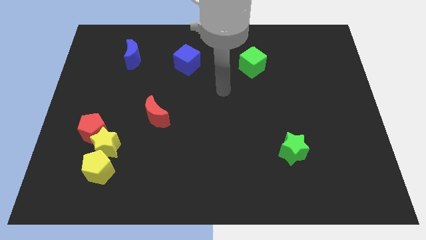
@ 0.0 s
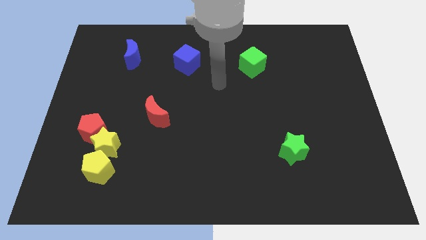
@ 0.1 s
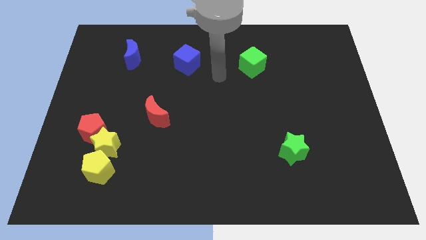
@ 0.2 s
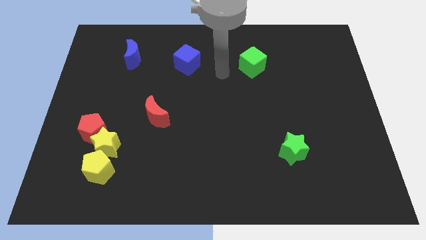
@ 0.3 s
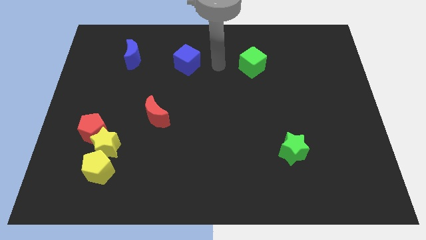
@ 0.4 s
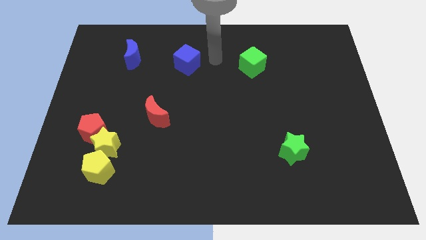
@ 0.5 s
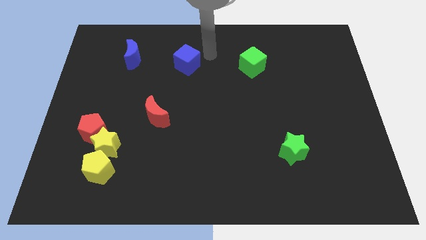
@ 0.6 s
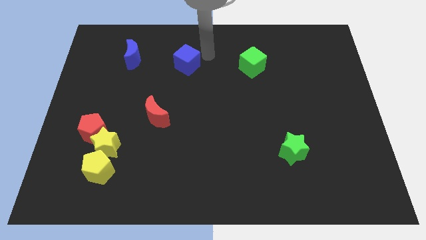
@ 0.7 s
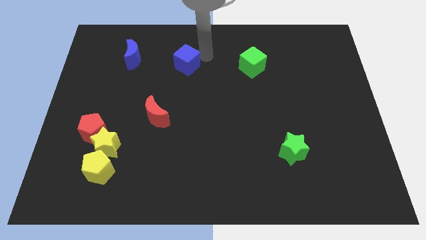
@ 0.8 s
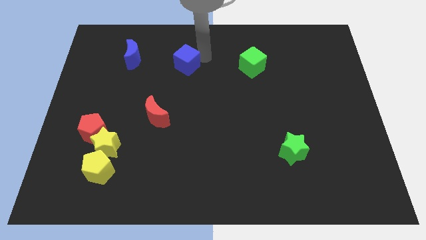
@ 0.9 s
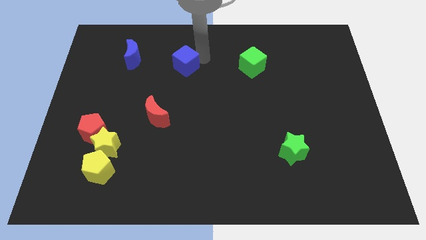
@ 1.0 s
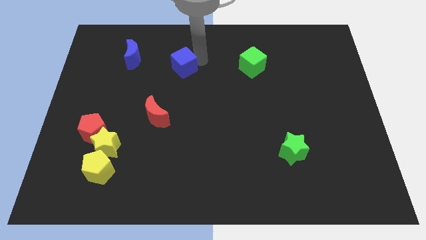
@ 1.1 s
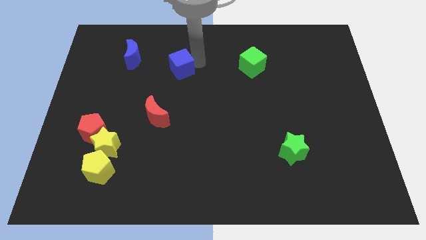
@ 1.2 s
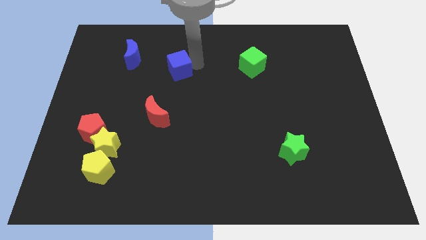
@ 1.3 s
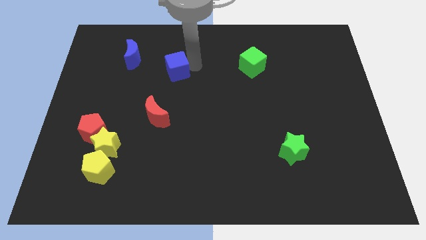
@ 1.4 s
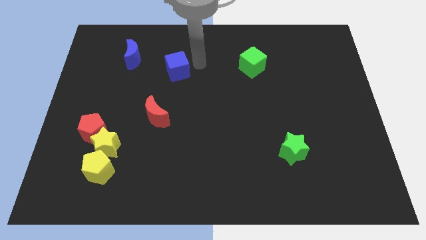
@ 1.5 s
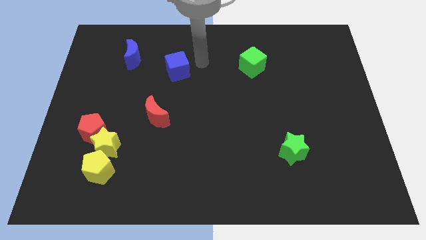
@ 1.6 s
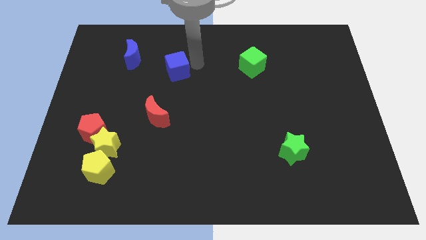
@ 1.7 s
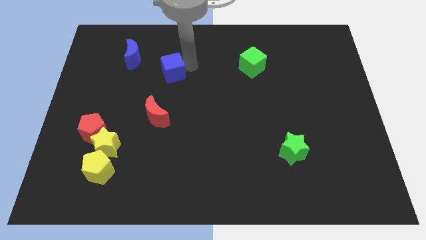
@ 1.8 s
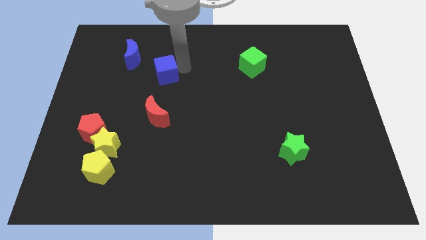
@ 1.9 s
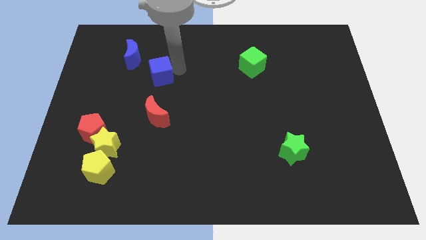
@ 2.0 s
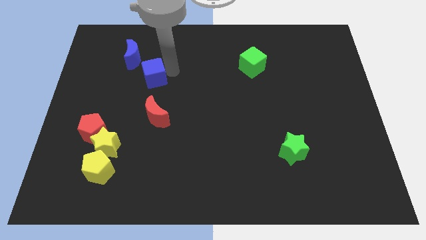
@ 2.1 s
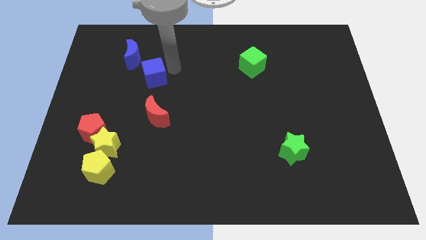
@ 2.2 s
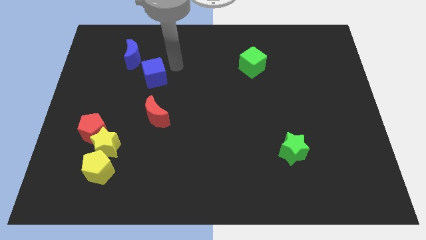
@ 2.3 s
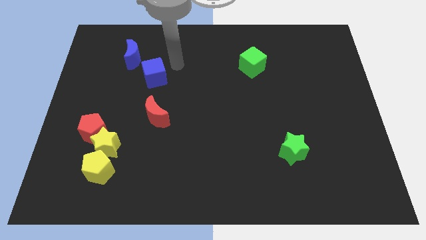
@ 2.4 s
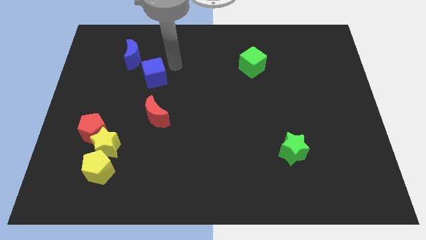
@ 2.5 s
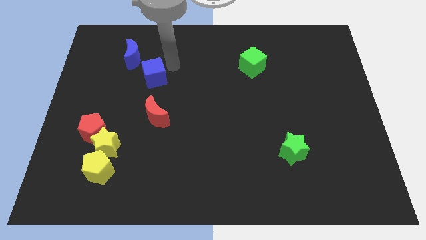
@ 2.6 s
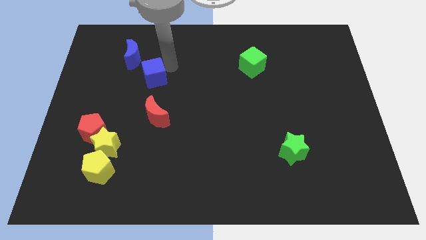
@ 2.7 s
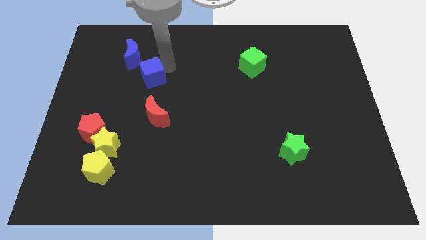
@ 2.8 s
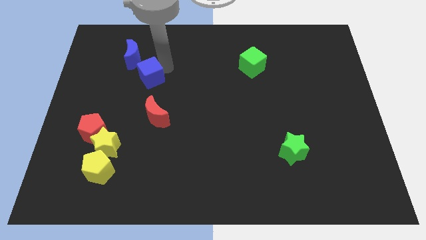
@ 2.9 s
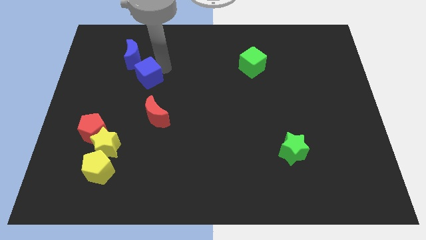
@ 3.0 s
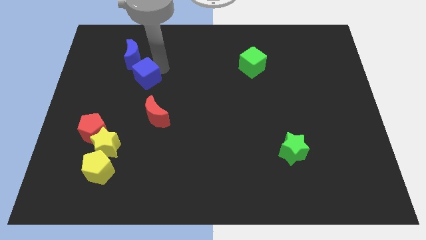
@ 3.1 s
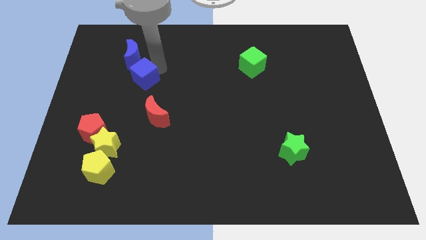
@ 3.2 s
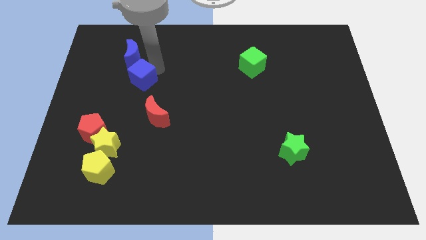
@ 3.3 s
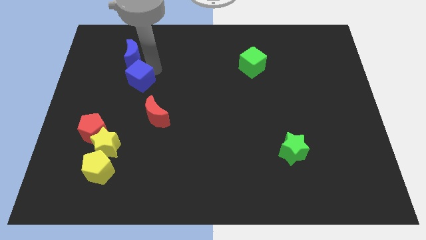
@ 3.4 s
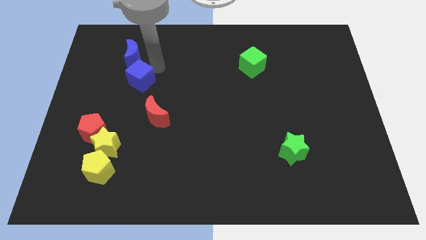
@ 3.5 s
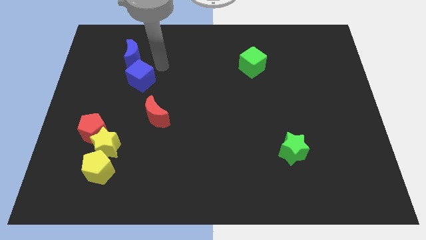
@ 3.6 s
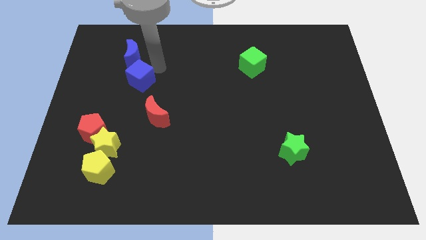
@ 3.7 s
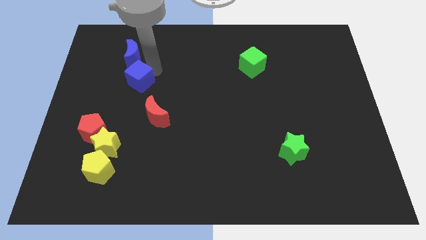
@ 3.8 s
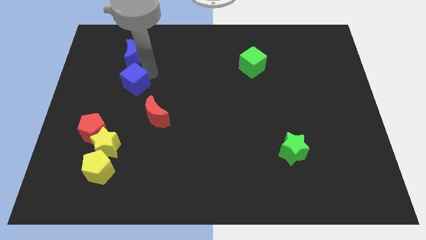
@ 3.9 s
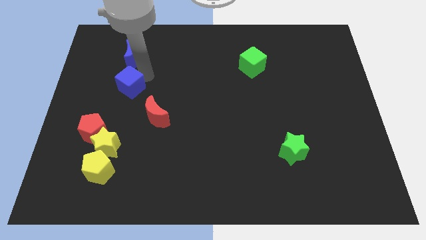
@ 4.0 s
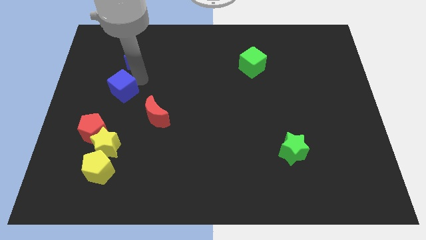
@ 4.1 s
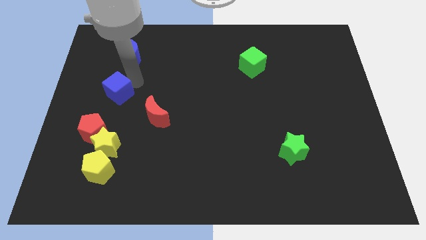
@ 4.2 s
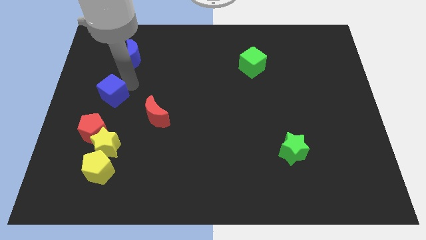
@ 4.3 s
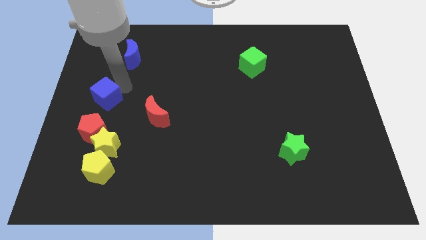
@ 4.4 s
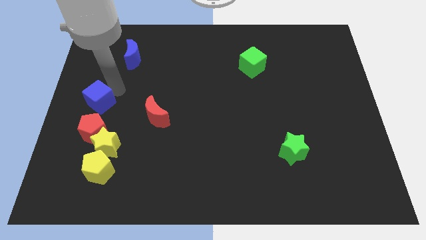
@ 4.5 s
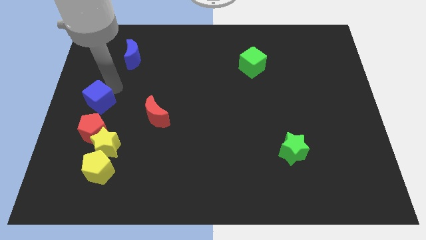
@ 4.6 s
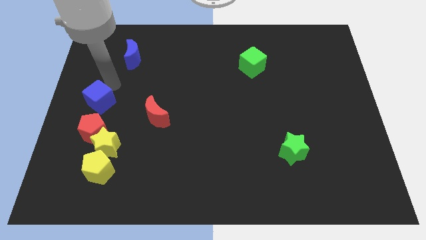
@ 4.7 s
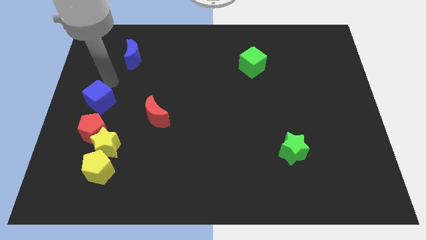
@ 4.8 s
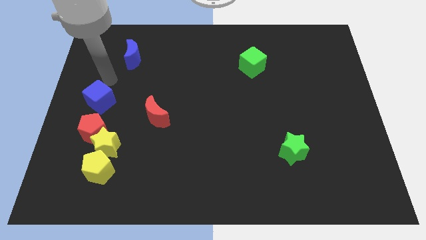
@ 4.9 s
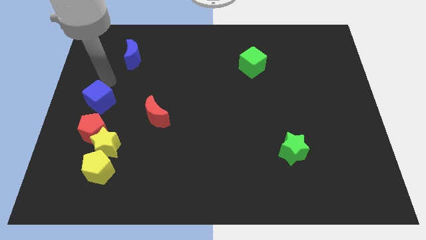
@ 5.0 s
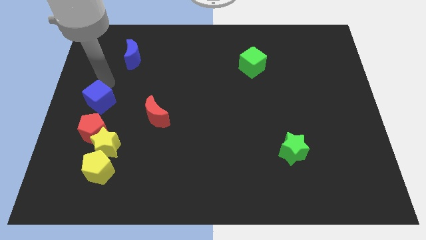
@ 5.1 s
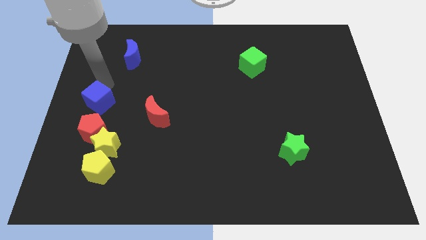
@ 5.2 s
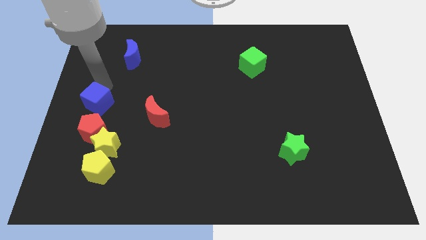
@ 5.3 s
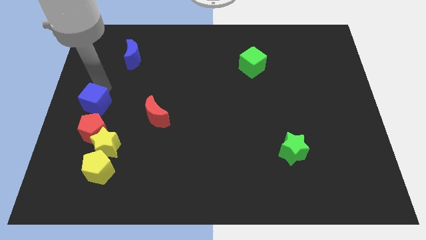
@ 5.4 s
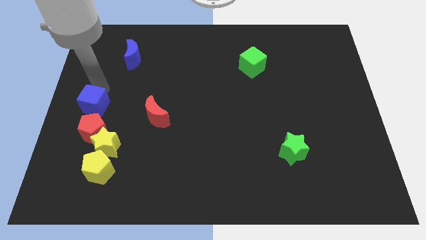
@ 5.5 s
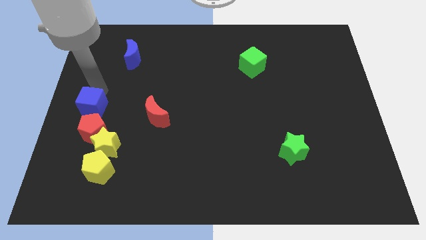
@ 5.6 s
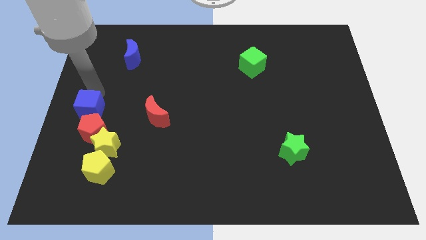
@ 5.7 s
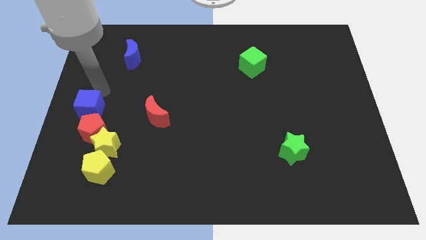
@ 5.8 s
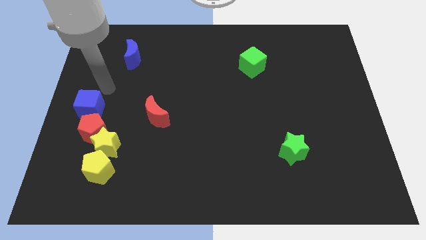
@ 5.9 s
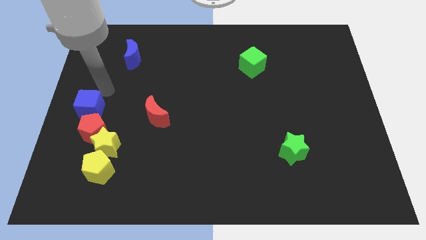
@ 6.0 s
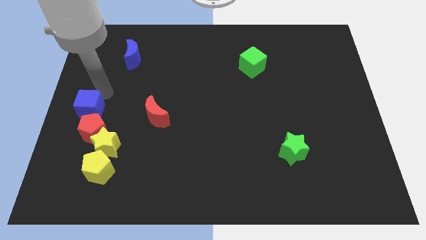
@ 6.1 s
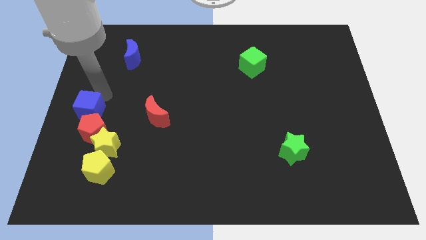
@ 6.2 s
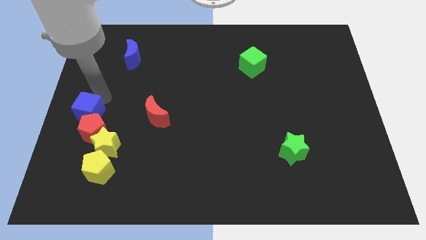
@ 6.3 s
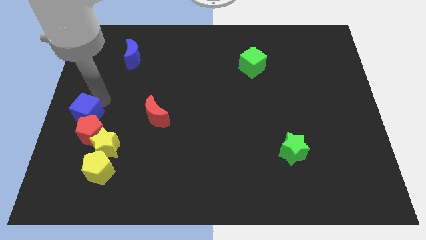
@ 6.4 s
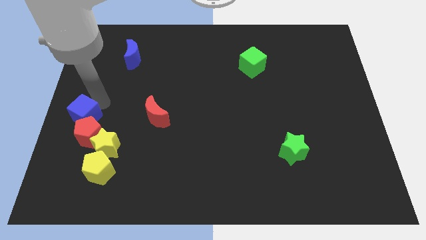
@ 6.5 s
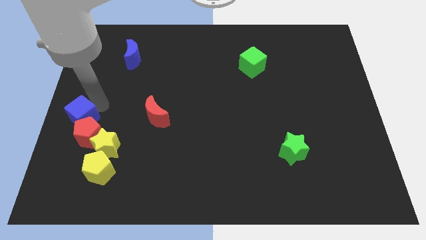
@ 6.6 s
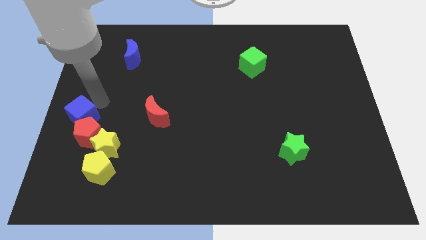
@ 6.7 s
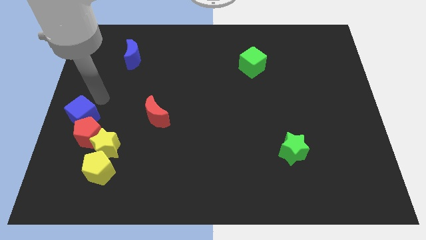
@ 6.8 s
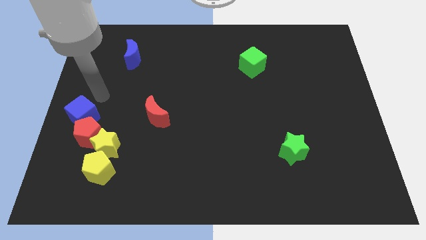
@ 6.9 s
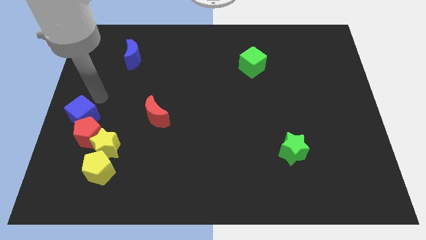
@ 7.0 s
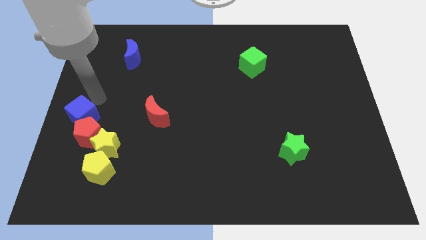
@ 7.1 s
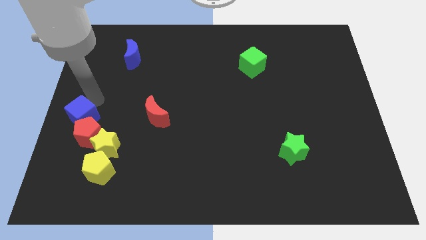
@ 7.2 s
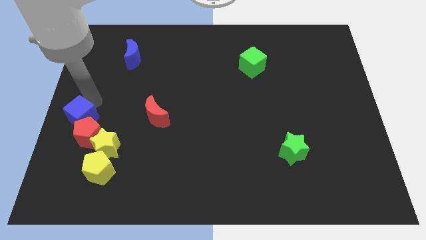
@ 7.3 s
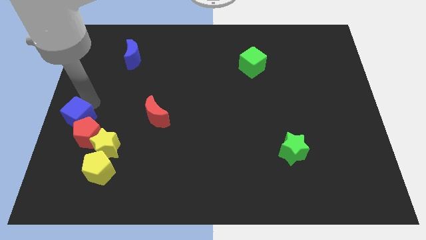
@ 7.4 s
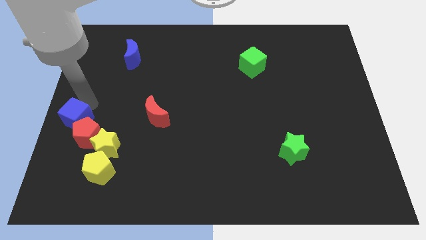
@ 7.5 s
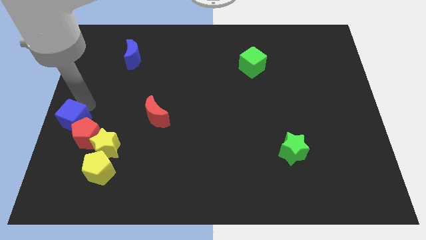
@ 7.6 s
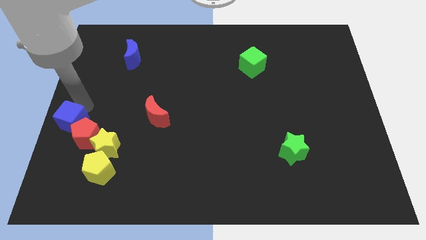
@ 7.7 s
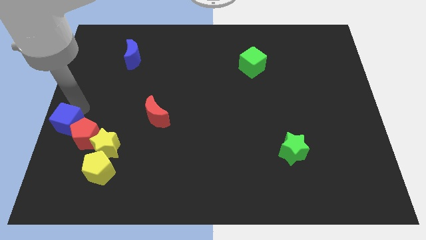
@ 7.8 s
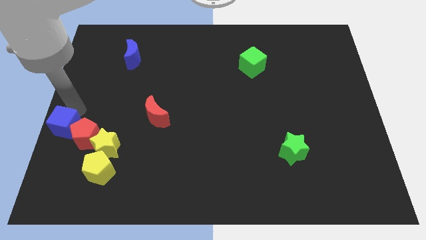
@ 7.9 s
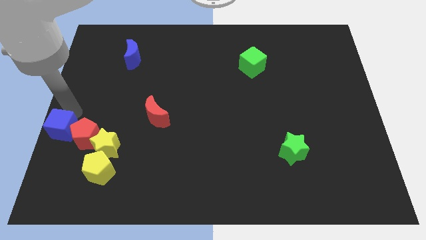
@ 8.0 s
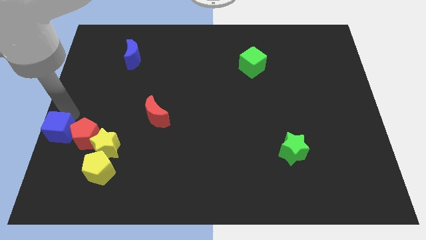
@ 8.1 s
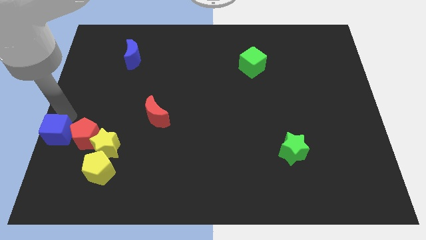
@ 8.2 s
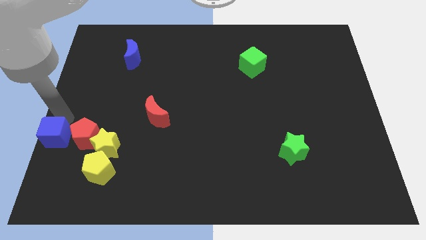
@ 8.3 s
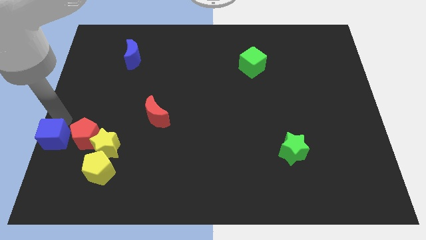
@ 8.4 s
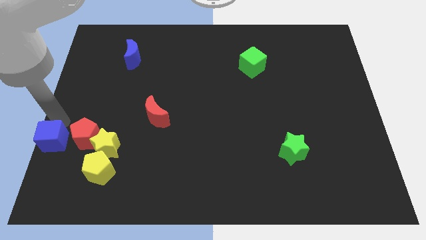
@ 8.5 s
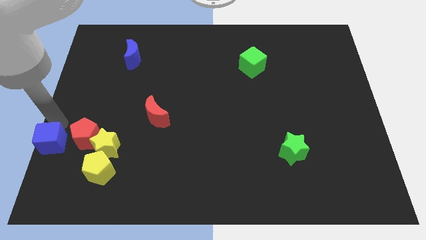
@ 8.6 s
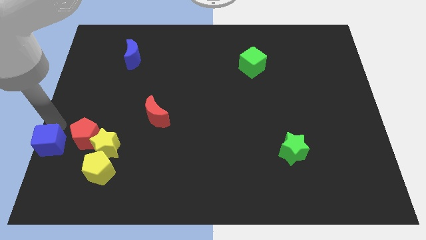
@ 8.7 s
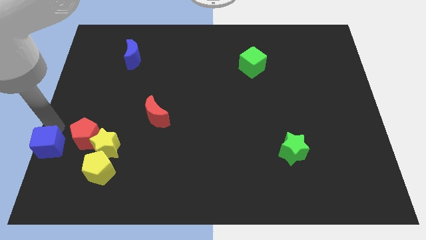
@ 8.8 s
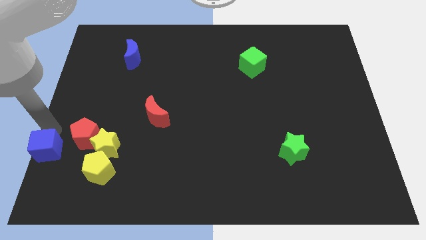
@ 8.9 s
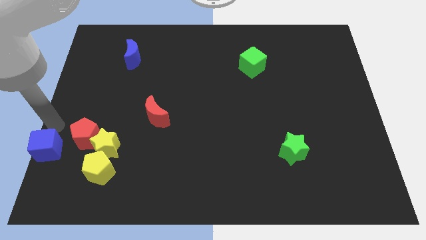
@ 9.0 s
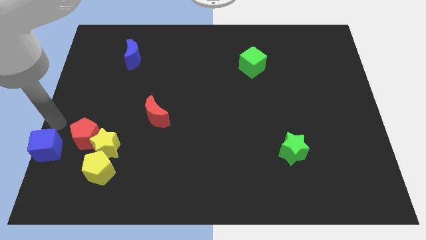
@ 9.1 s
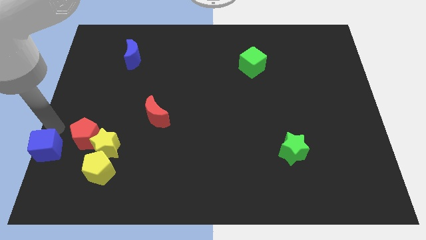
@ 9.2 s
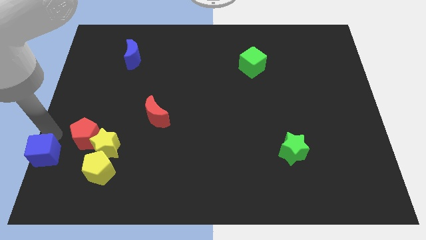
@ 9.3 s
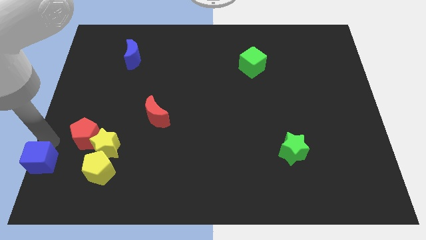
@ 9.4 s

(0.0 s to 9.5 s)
push the blue cube to the bottom left of the board
